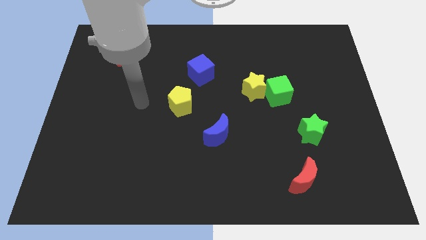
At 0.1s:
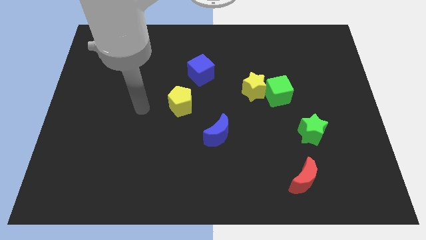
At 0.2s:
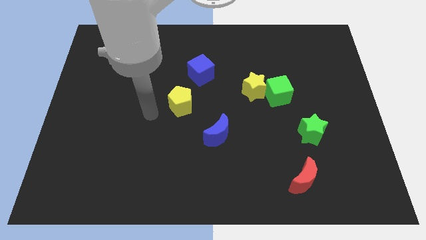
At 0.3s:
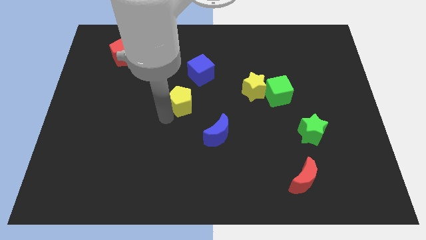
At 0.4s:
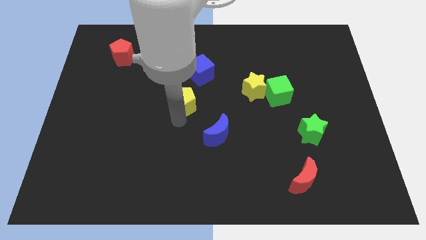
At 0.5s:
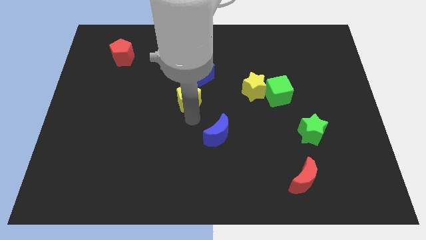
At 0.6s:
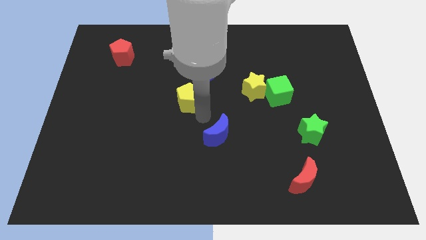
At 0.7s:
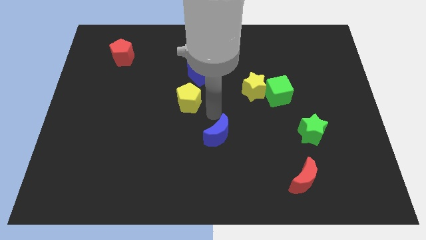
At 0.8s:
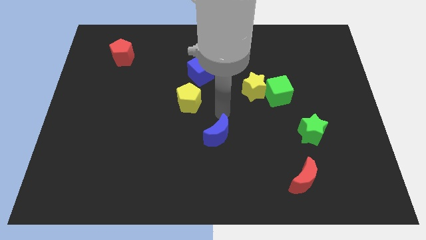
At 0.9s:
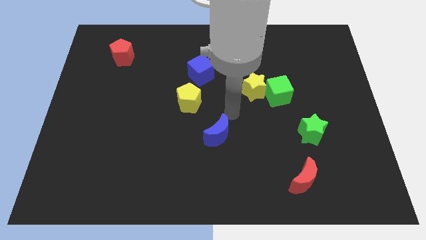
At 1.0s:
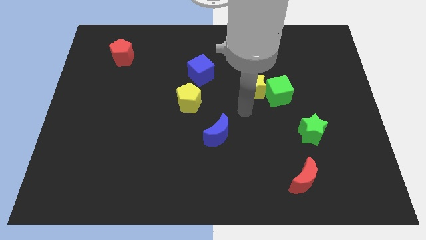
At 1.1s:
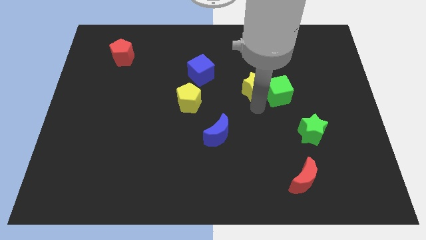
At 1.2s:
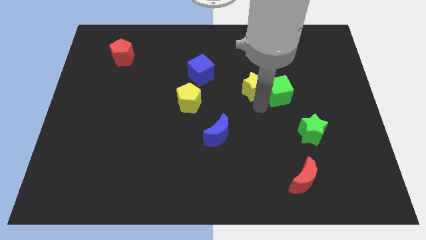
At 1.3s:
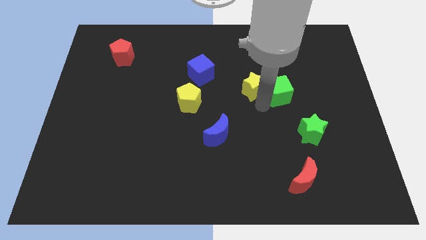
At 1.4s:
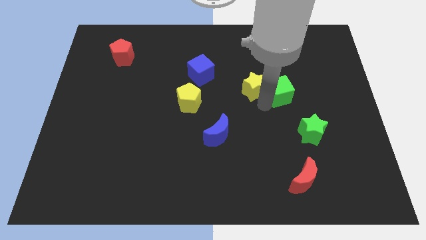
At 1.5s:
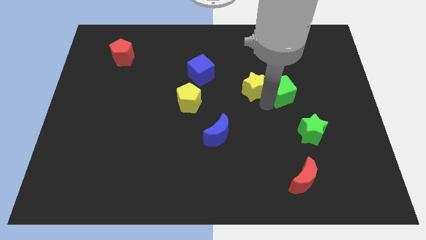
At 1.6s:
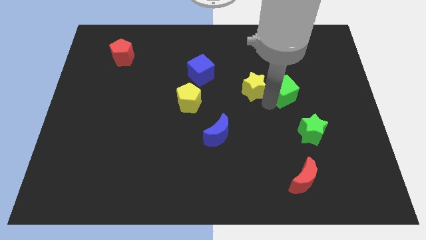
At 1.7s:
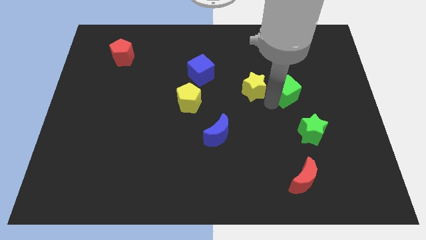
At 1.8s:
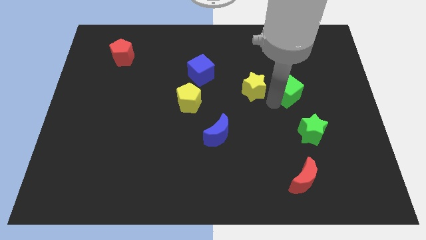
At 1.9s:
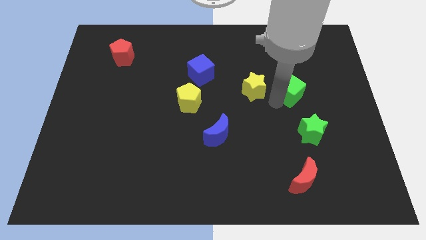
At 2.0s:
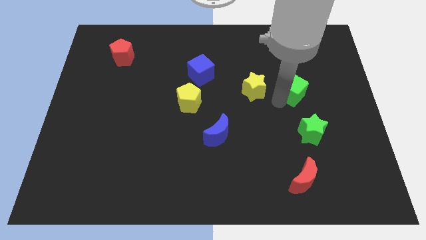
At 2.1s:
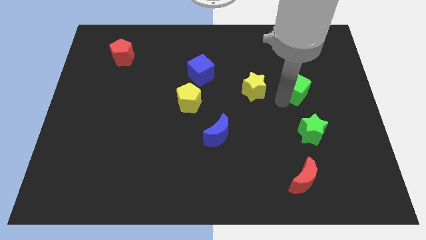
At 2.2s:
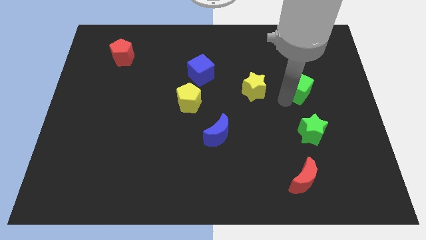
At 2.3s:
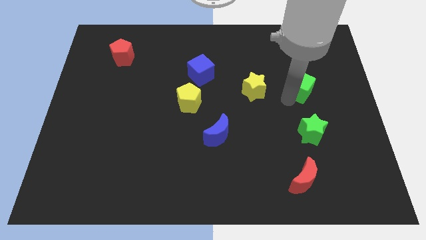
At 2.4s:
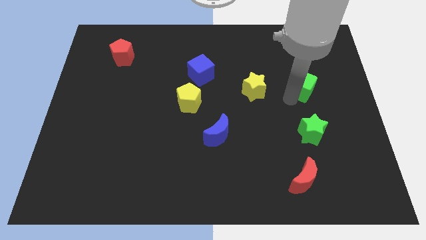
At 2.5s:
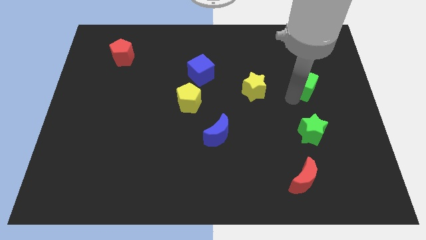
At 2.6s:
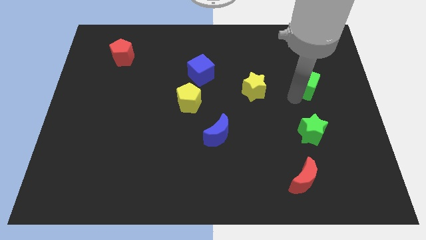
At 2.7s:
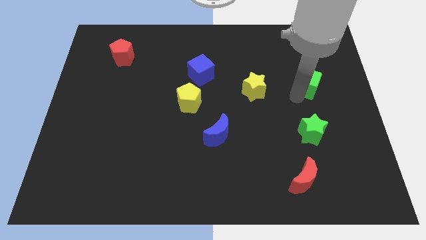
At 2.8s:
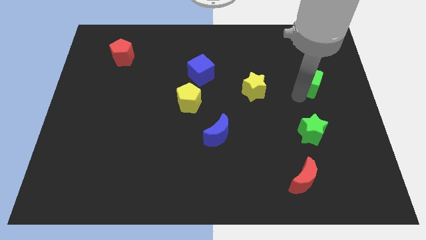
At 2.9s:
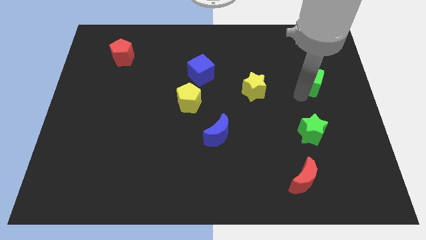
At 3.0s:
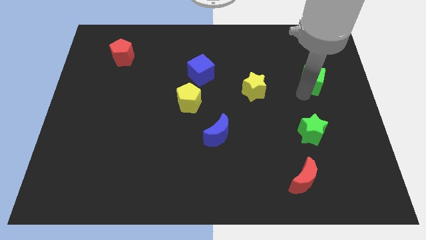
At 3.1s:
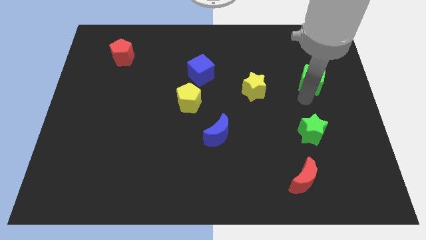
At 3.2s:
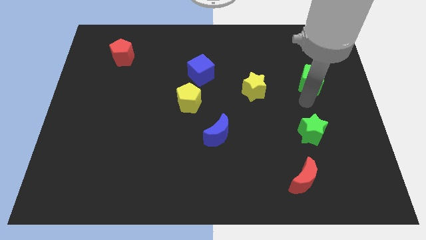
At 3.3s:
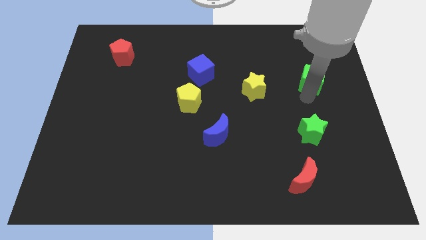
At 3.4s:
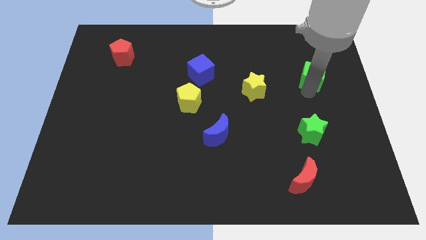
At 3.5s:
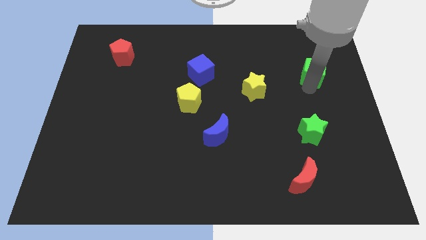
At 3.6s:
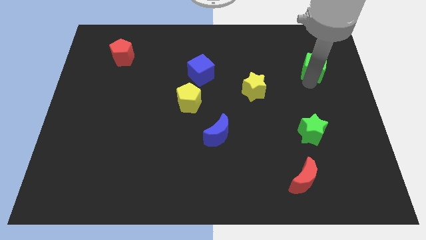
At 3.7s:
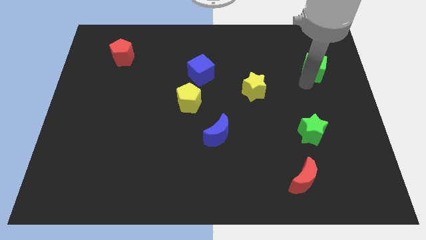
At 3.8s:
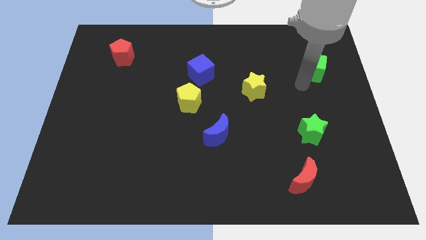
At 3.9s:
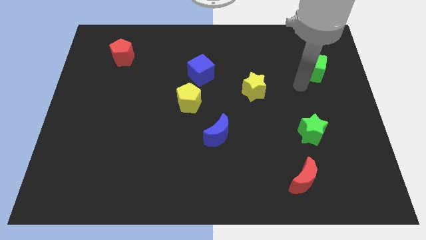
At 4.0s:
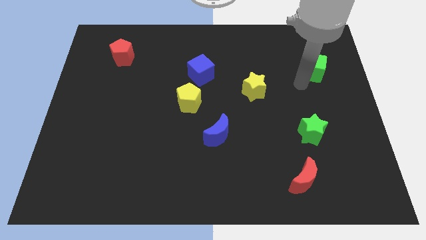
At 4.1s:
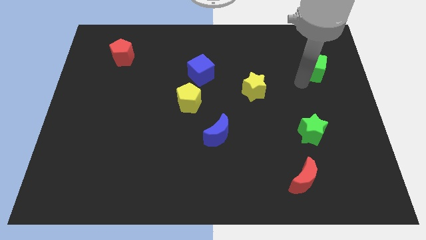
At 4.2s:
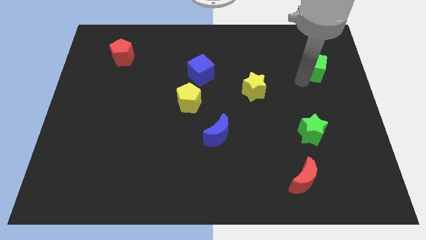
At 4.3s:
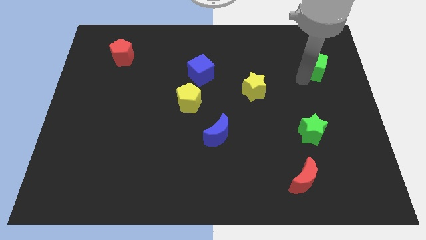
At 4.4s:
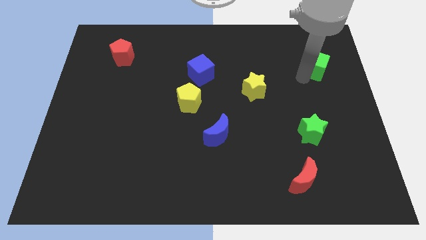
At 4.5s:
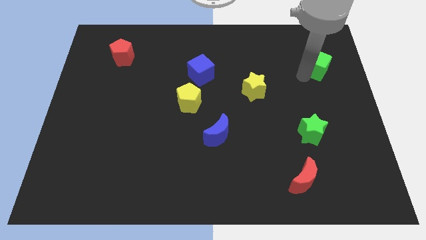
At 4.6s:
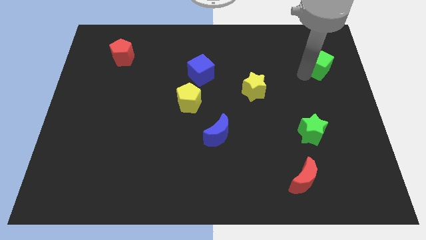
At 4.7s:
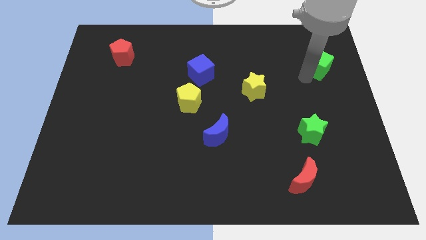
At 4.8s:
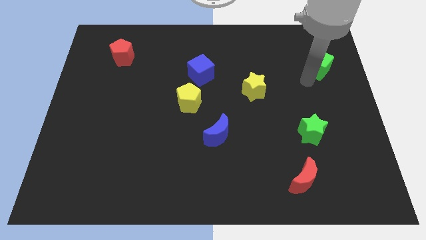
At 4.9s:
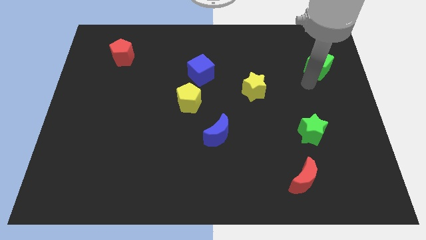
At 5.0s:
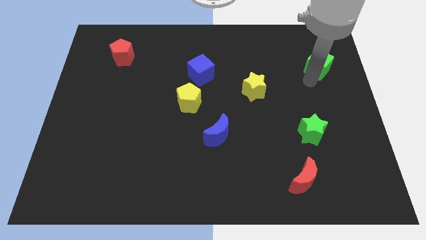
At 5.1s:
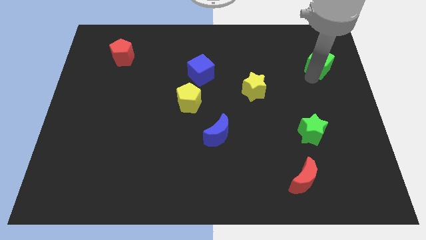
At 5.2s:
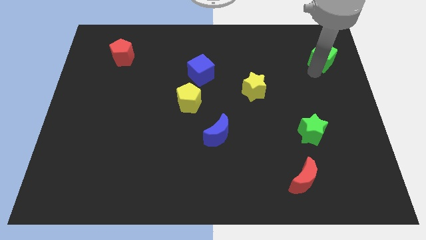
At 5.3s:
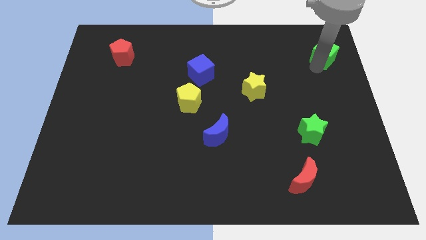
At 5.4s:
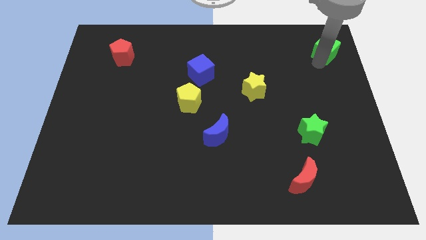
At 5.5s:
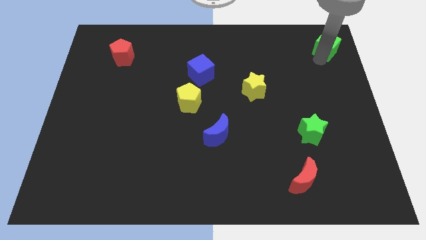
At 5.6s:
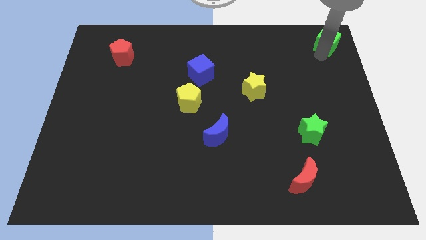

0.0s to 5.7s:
put the green cube to the top right corner
